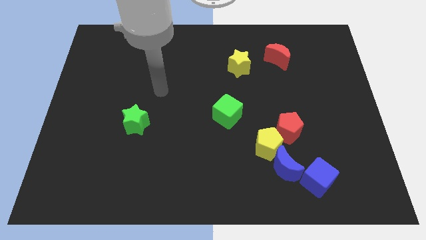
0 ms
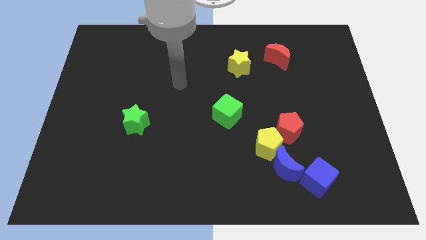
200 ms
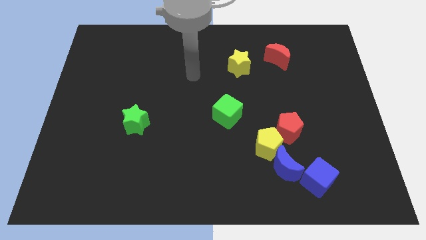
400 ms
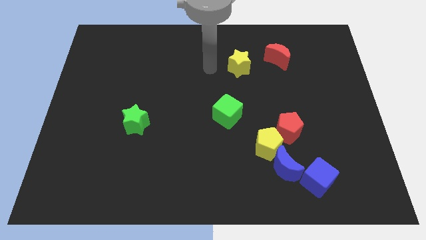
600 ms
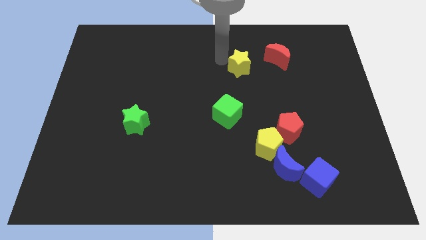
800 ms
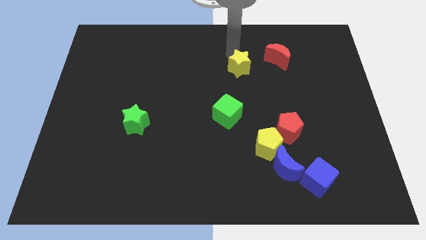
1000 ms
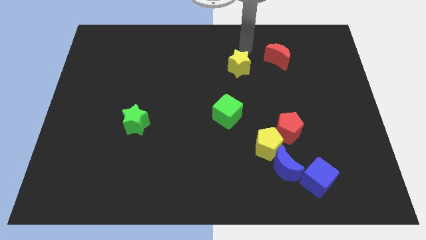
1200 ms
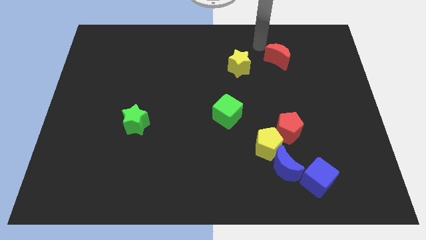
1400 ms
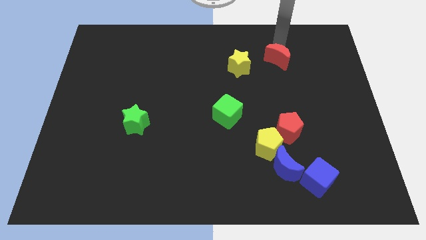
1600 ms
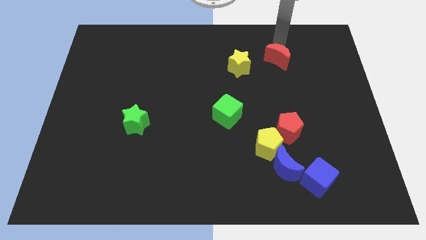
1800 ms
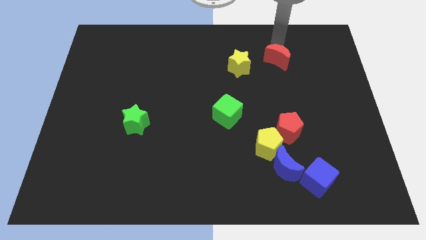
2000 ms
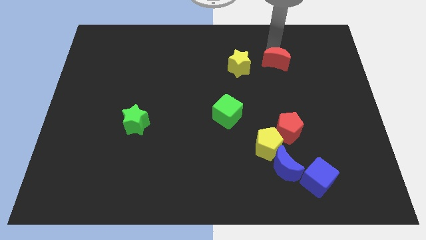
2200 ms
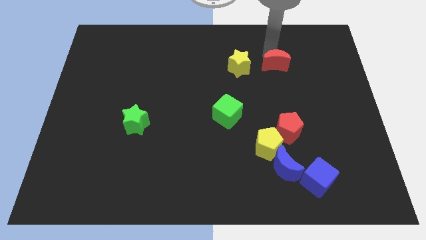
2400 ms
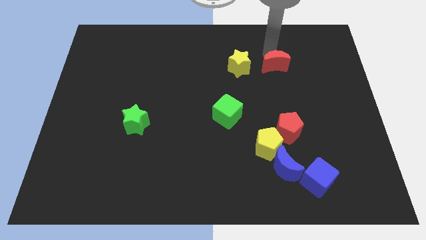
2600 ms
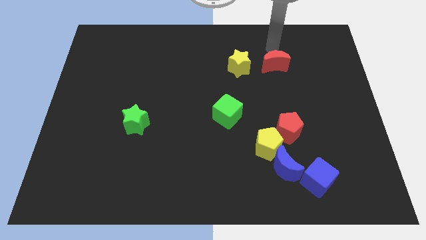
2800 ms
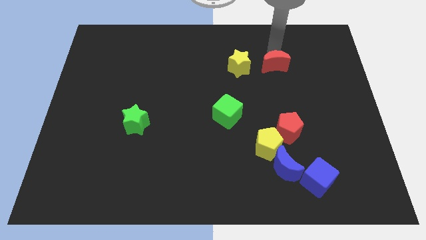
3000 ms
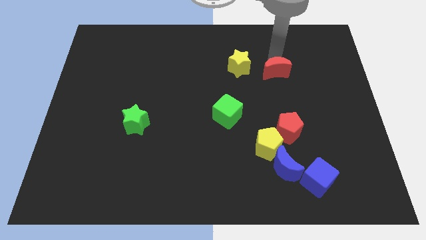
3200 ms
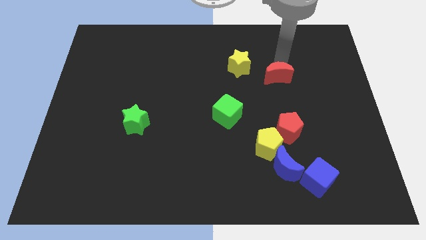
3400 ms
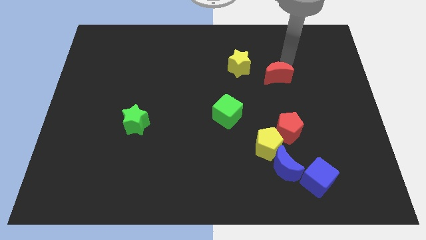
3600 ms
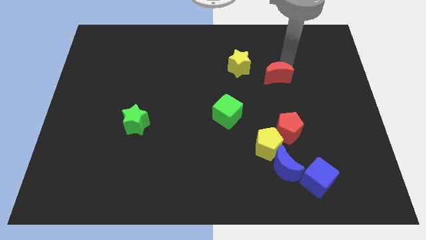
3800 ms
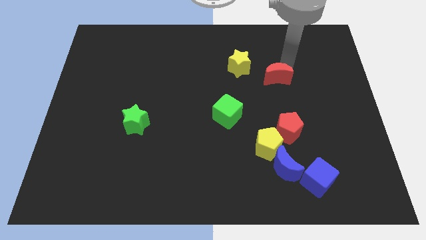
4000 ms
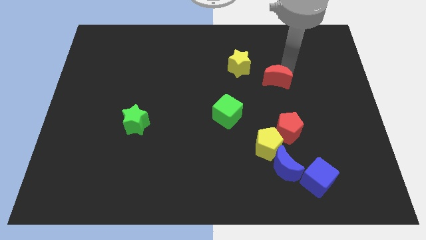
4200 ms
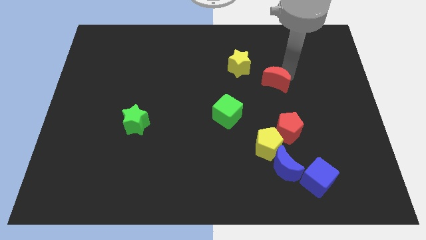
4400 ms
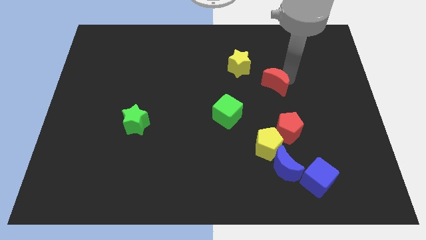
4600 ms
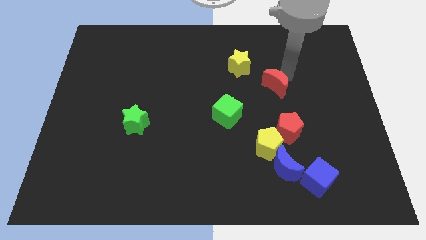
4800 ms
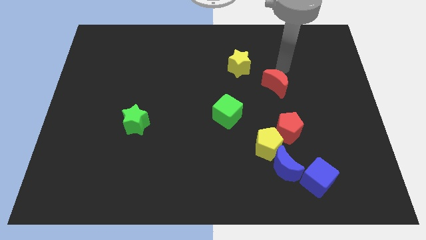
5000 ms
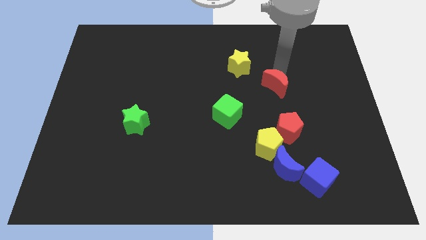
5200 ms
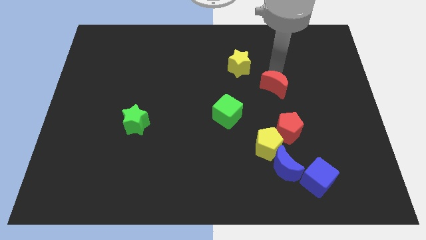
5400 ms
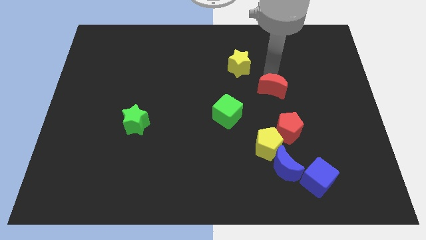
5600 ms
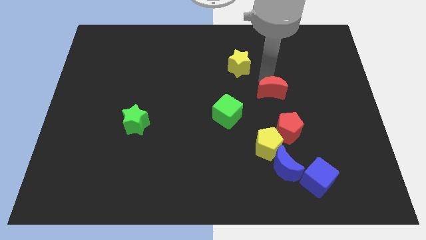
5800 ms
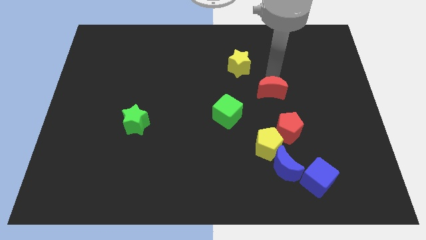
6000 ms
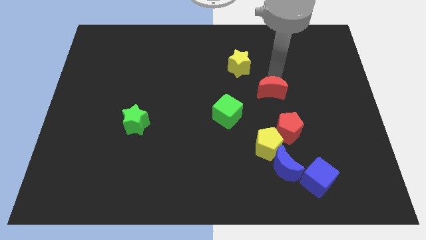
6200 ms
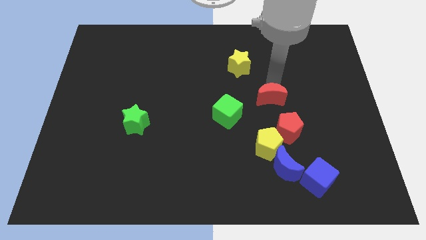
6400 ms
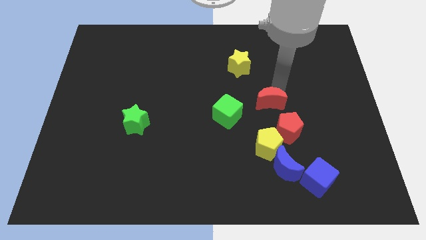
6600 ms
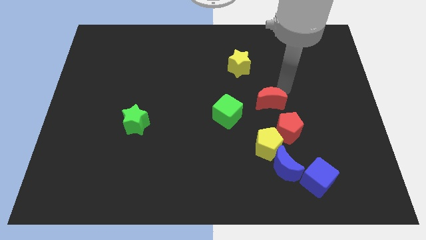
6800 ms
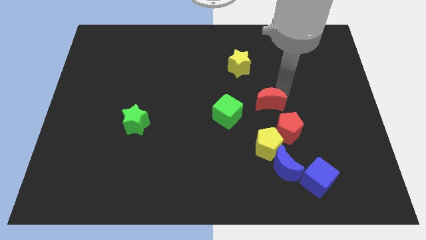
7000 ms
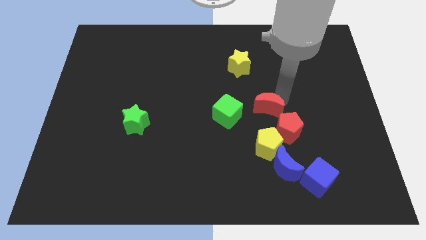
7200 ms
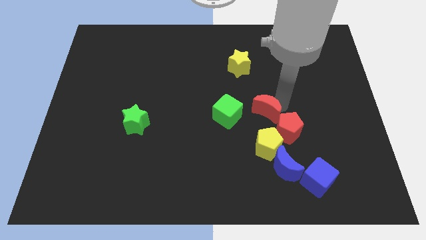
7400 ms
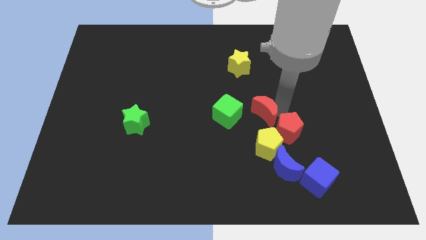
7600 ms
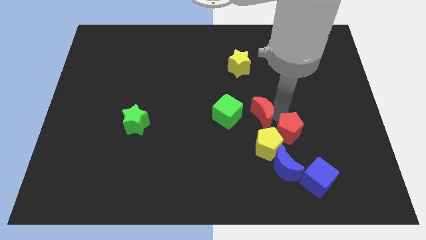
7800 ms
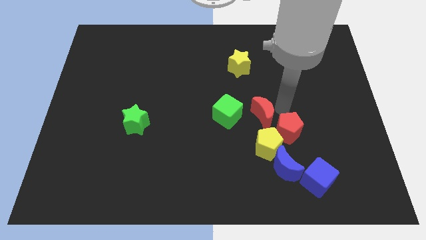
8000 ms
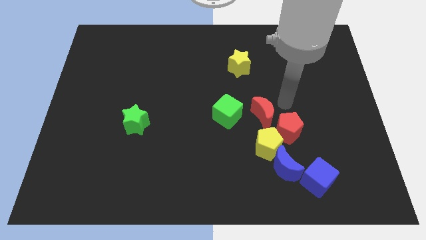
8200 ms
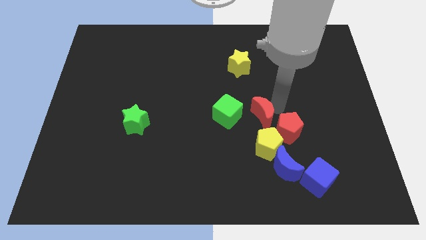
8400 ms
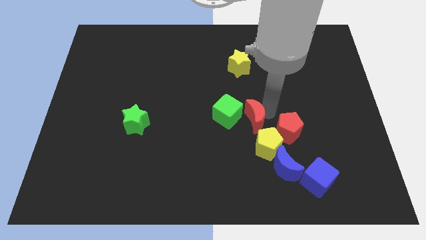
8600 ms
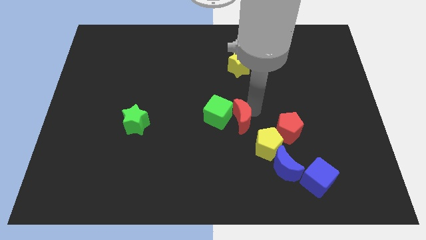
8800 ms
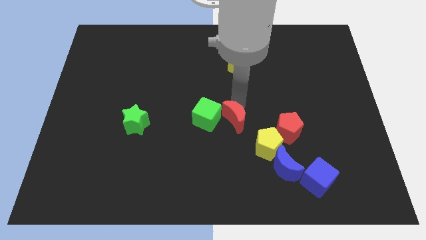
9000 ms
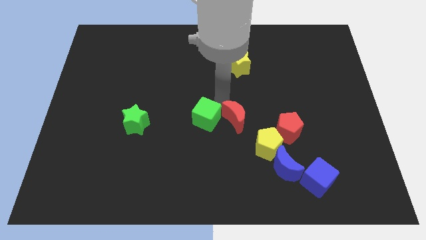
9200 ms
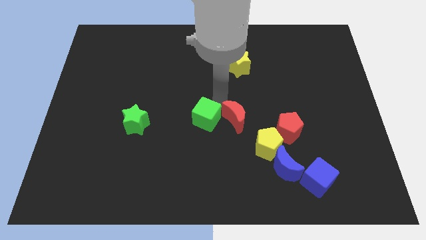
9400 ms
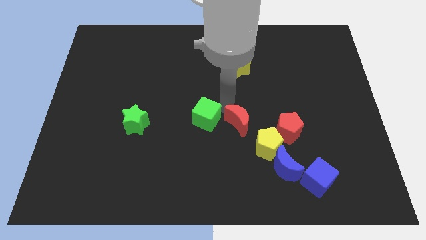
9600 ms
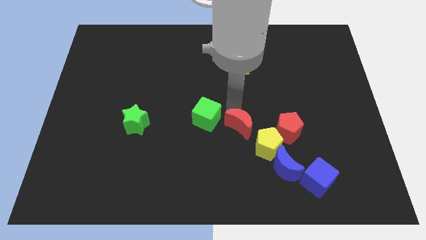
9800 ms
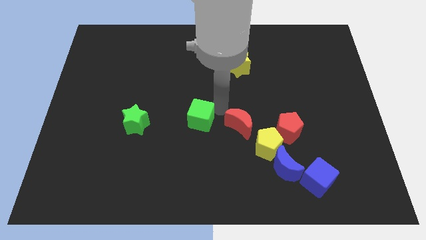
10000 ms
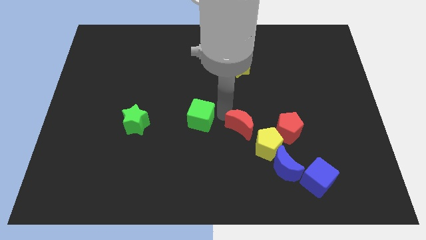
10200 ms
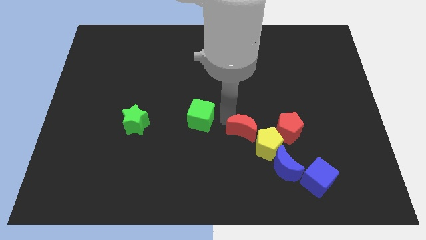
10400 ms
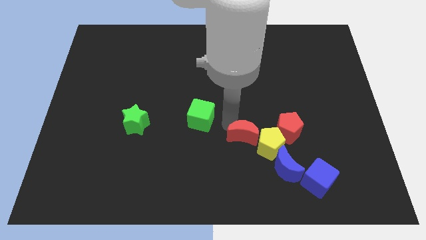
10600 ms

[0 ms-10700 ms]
put the red moon next to the yellow pentagon

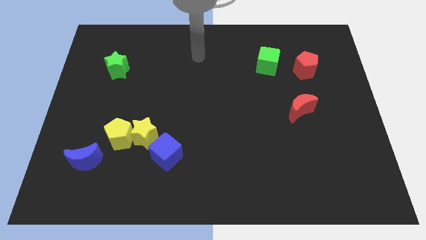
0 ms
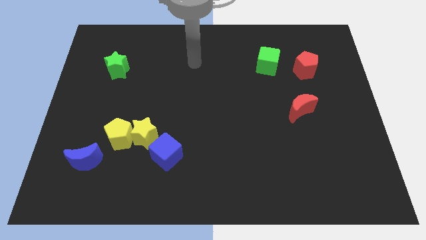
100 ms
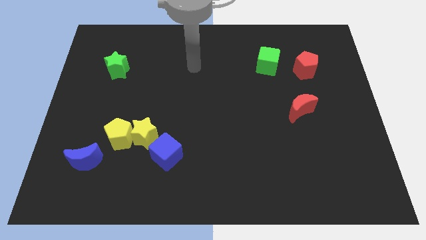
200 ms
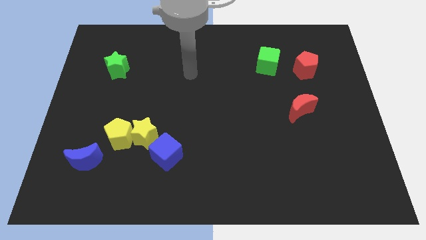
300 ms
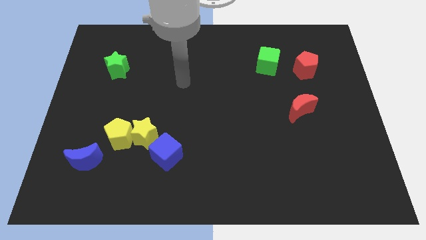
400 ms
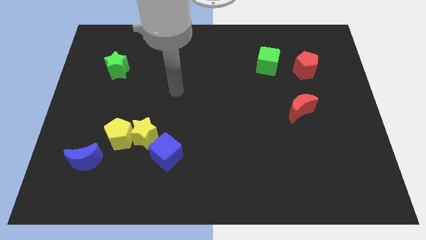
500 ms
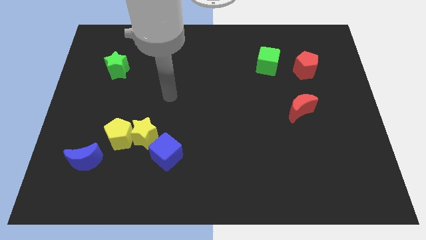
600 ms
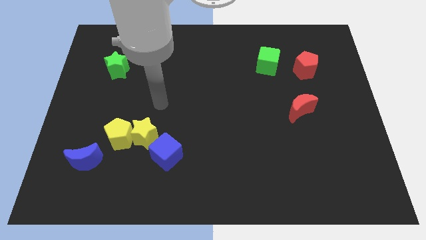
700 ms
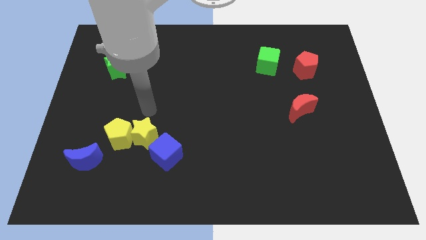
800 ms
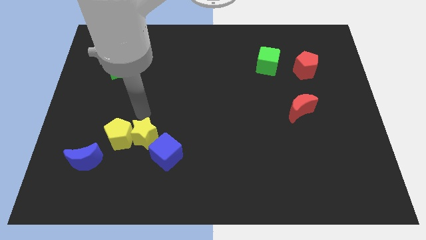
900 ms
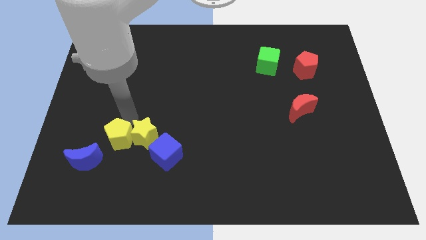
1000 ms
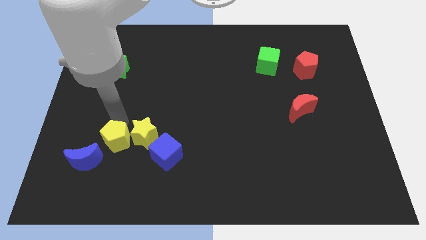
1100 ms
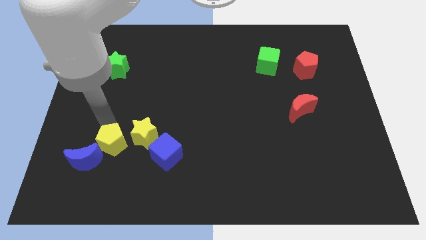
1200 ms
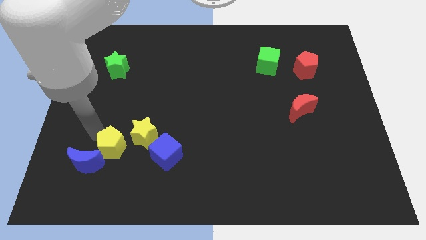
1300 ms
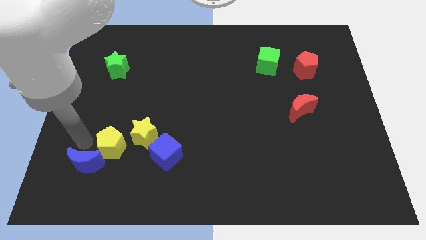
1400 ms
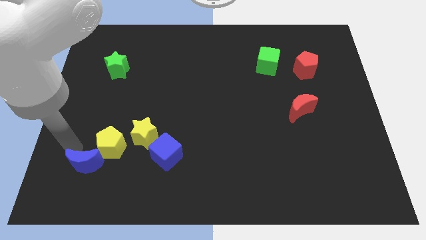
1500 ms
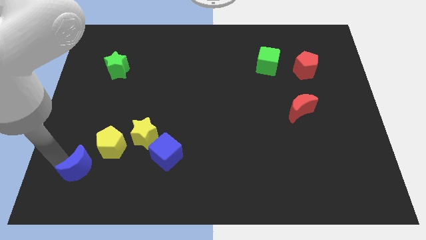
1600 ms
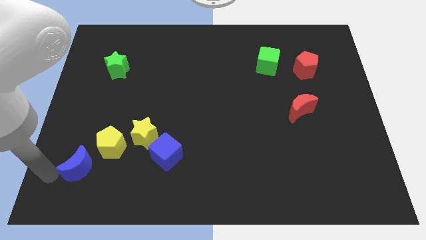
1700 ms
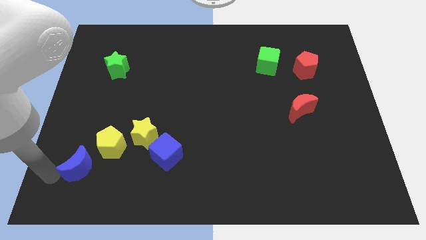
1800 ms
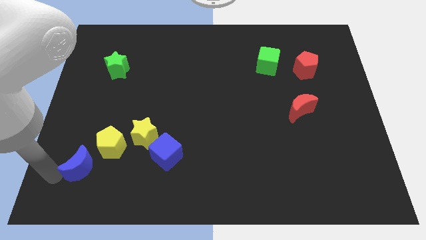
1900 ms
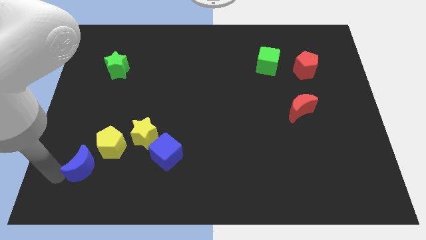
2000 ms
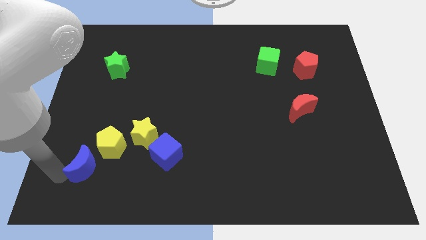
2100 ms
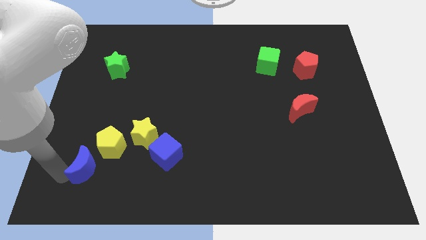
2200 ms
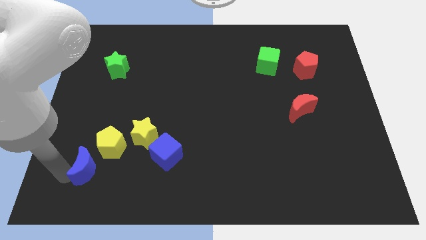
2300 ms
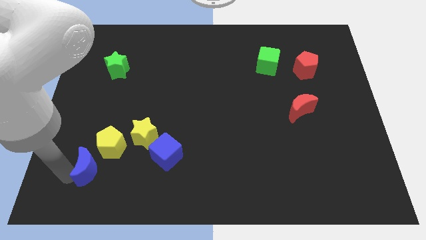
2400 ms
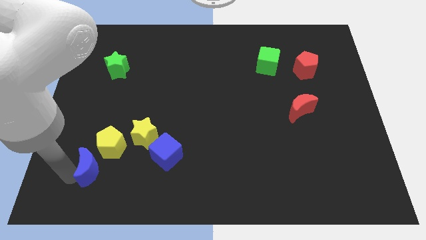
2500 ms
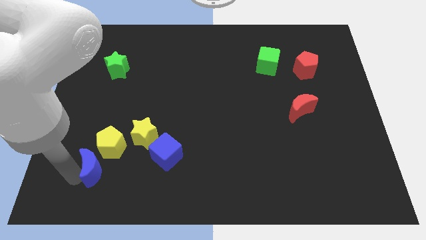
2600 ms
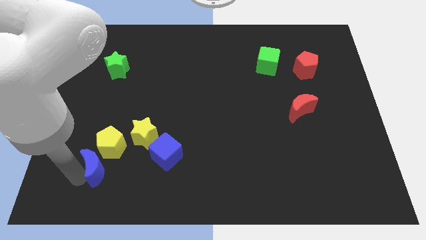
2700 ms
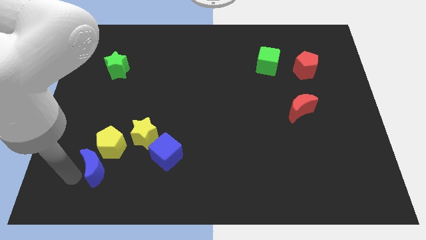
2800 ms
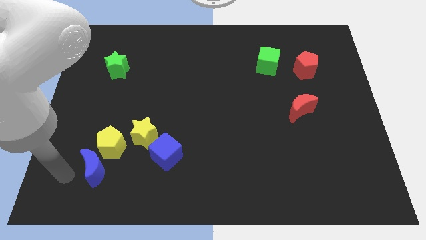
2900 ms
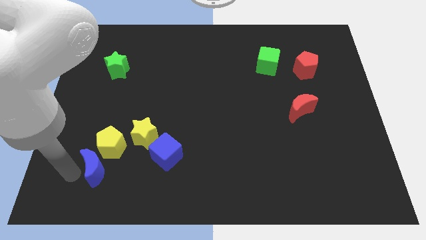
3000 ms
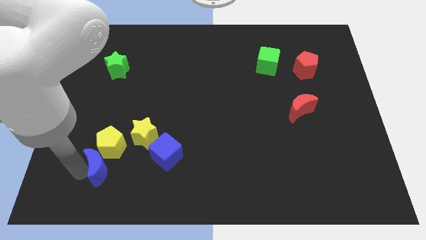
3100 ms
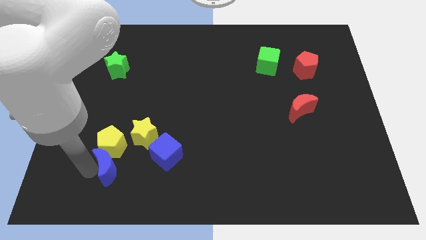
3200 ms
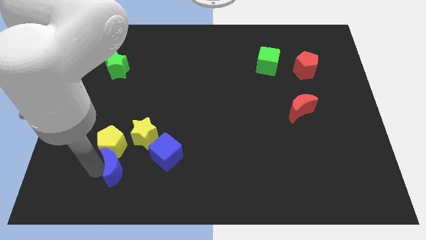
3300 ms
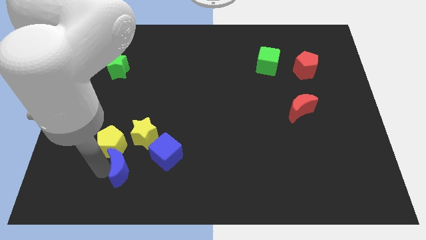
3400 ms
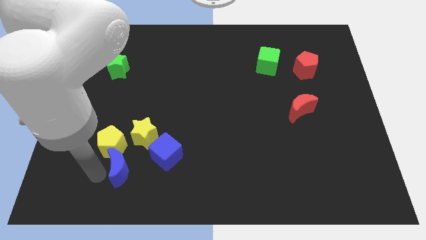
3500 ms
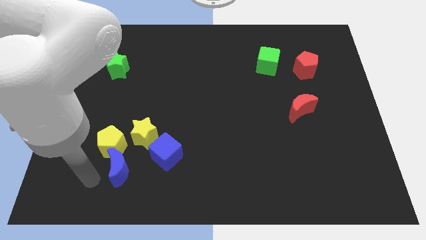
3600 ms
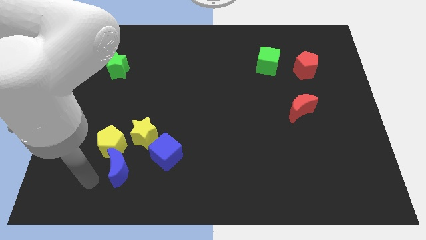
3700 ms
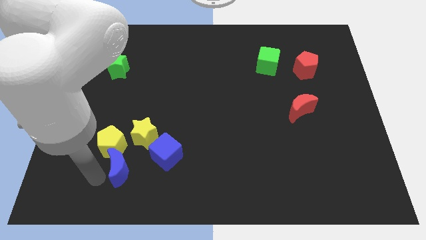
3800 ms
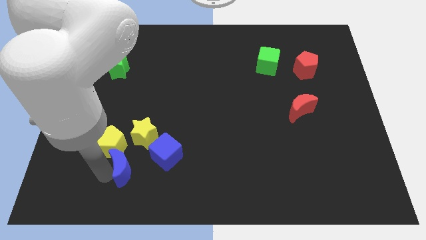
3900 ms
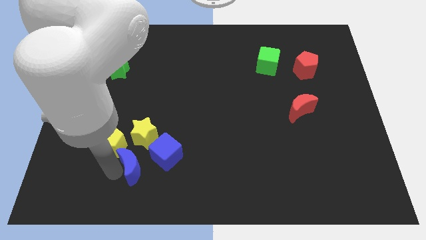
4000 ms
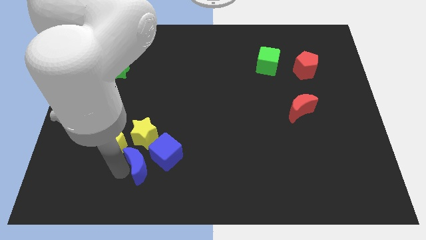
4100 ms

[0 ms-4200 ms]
slide the blue moon close to the blue cube
